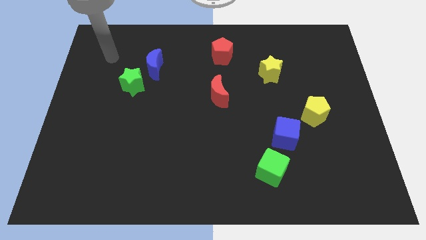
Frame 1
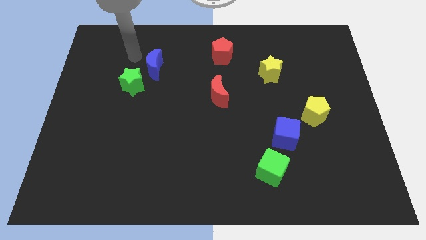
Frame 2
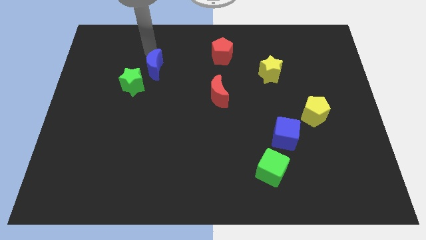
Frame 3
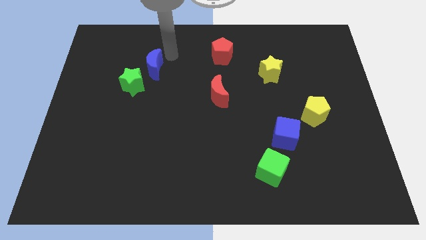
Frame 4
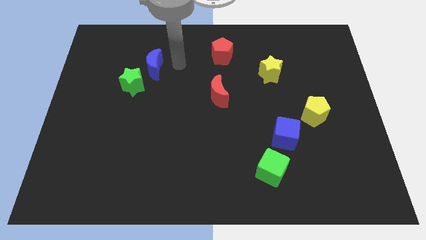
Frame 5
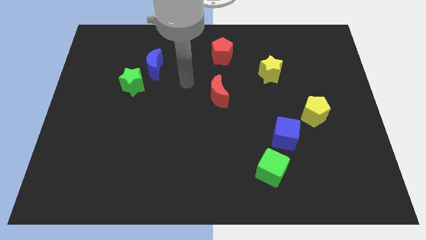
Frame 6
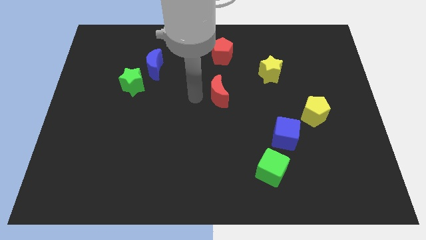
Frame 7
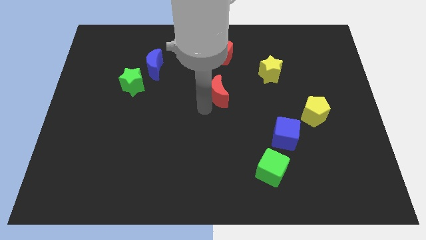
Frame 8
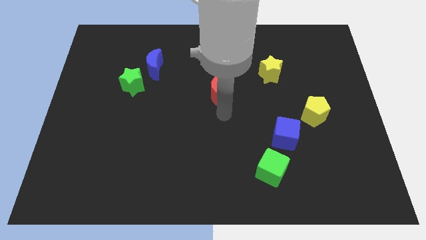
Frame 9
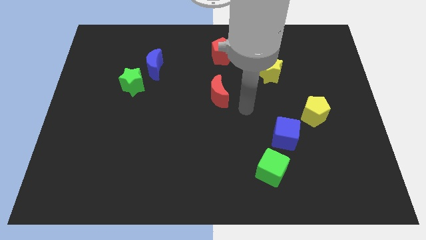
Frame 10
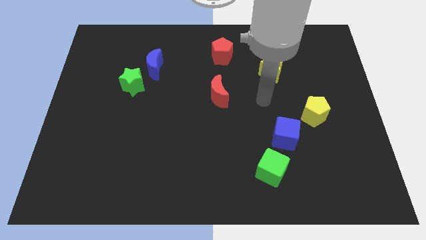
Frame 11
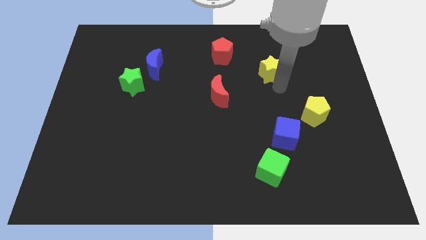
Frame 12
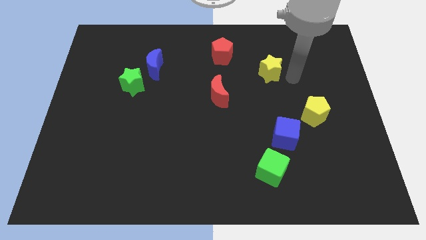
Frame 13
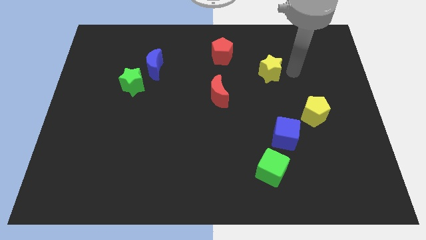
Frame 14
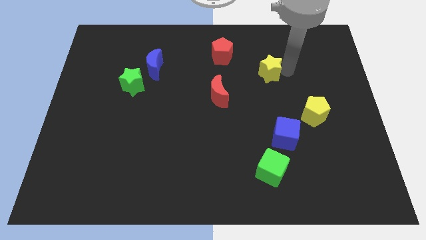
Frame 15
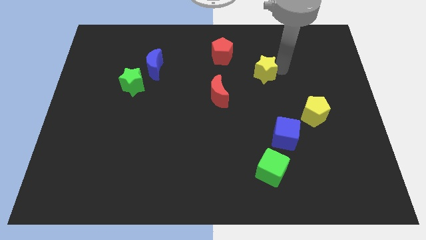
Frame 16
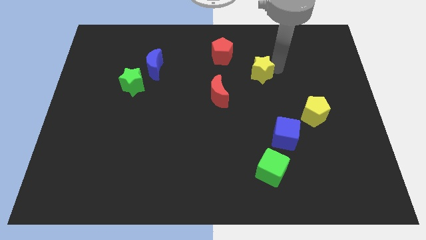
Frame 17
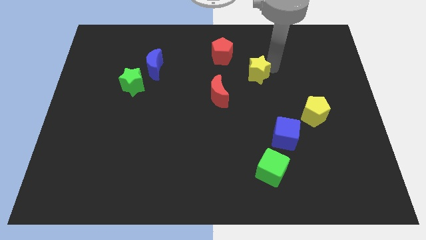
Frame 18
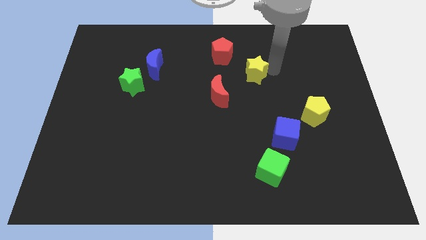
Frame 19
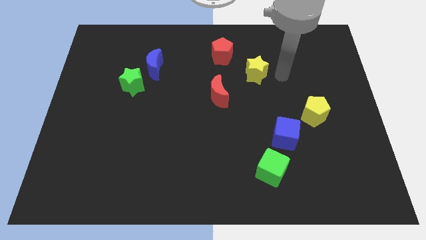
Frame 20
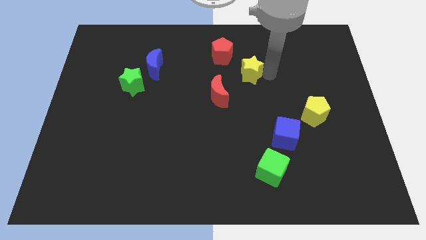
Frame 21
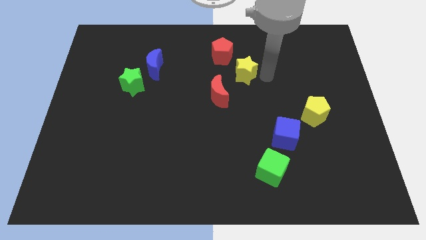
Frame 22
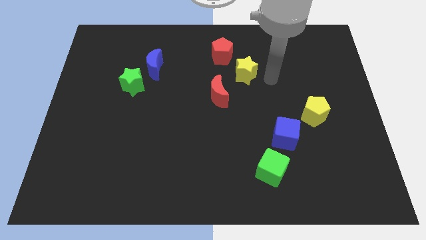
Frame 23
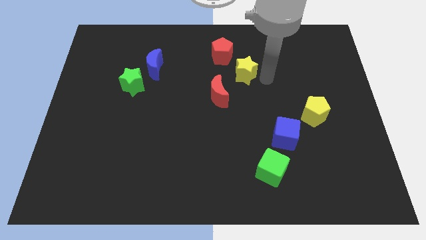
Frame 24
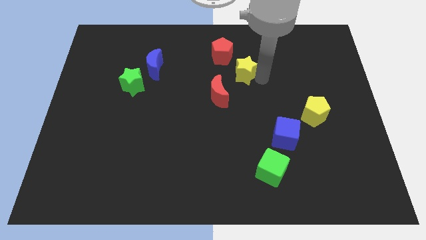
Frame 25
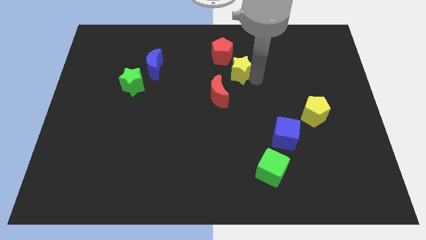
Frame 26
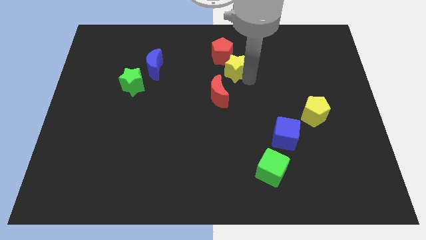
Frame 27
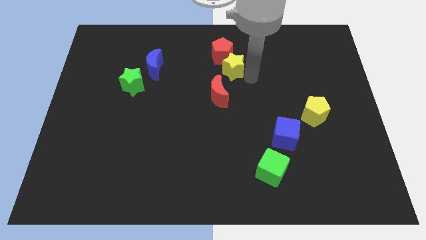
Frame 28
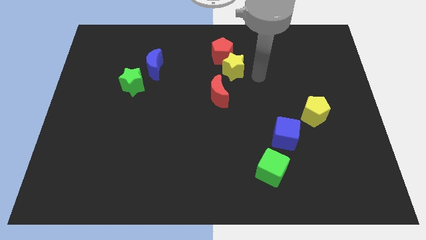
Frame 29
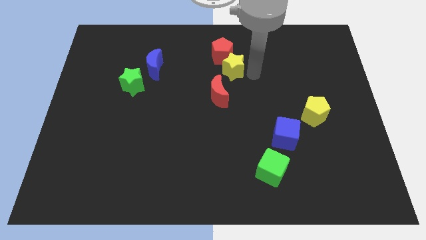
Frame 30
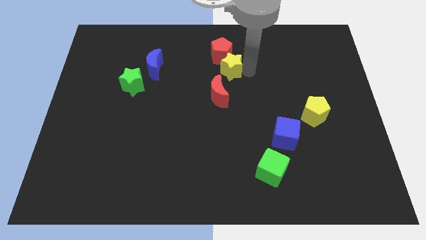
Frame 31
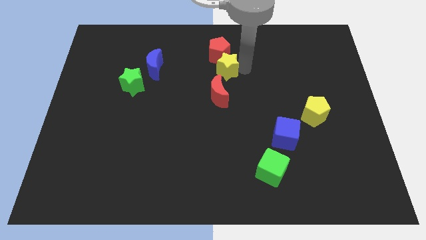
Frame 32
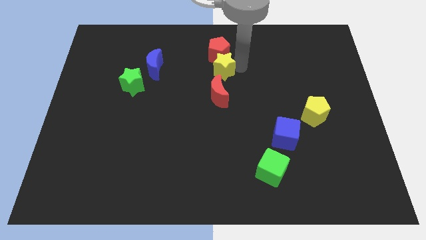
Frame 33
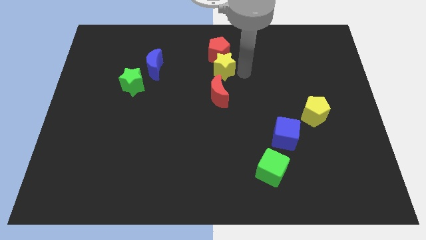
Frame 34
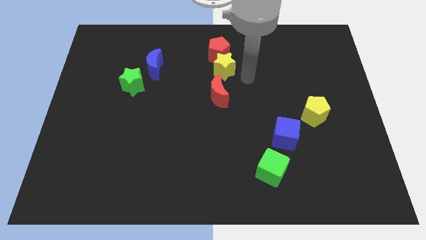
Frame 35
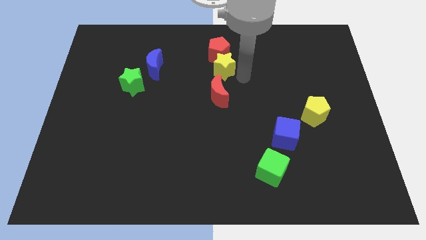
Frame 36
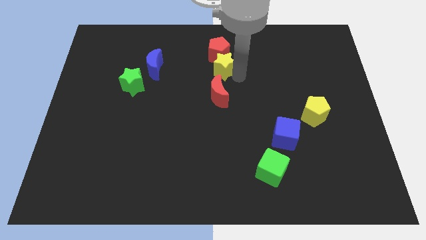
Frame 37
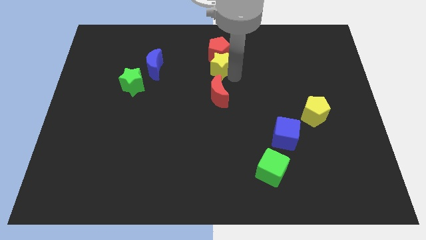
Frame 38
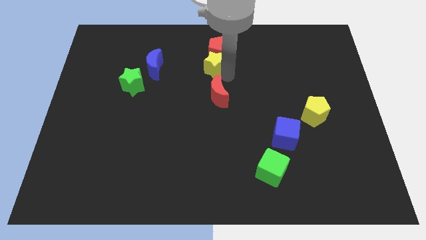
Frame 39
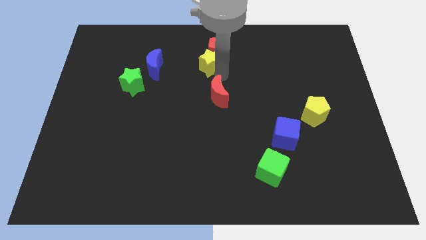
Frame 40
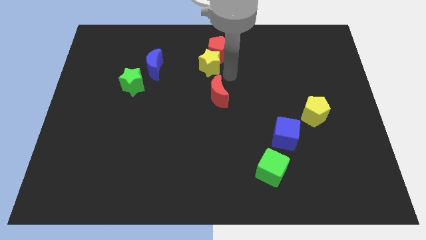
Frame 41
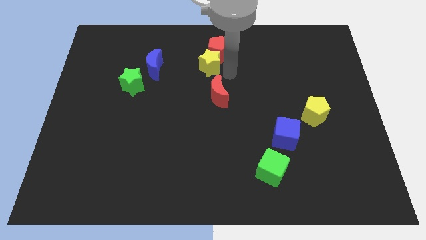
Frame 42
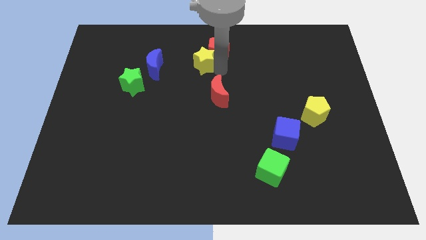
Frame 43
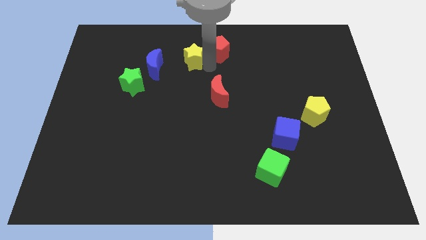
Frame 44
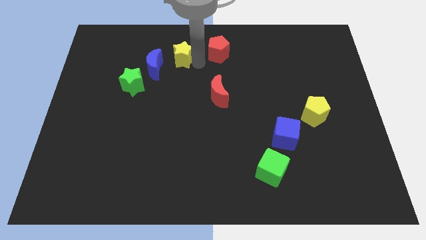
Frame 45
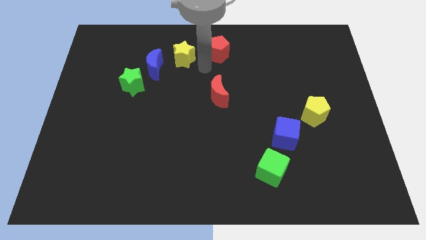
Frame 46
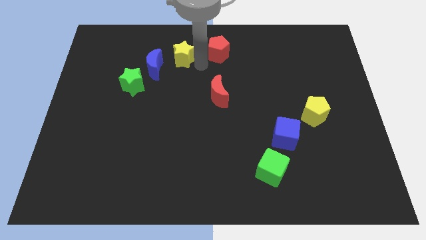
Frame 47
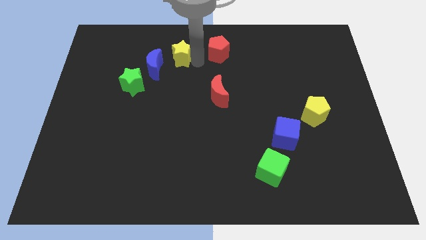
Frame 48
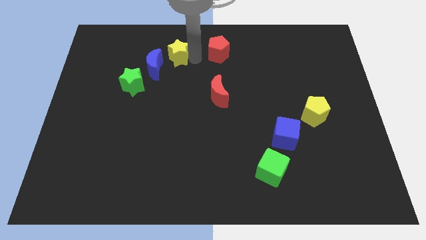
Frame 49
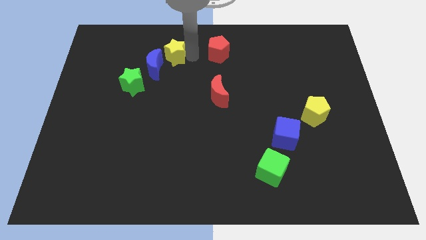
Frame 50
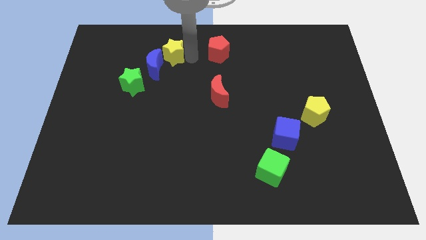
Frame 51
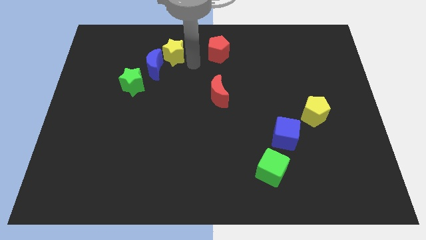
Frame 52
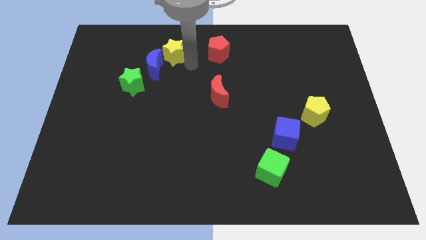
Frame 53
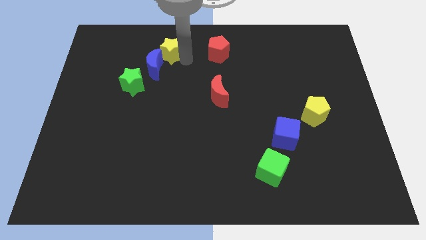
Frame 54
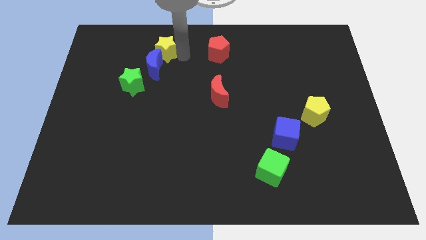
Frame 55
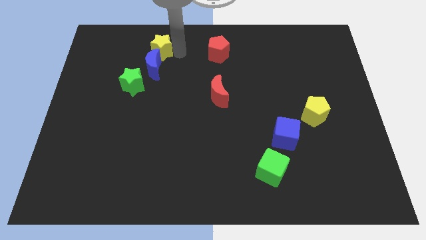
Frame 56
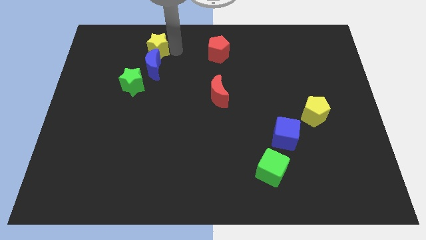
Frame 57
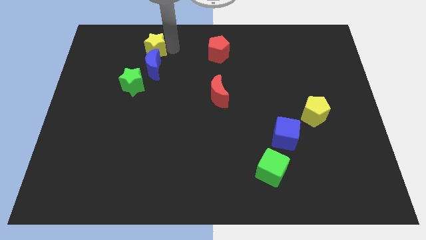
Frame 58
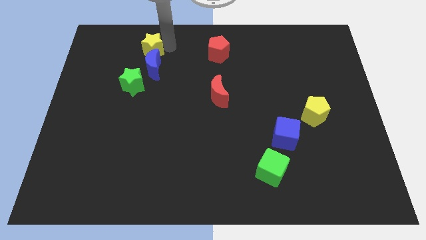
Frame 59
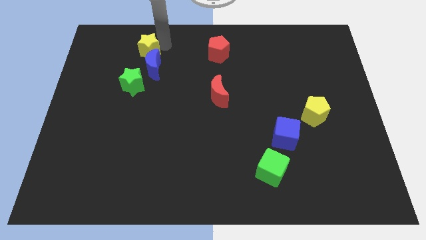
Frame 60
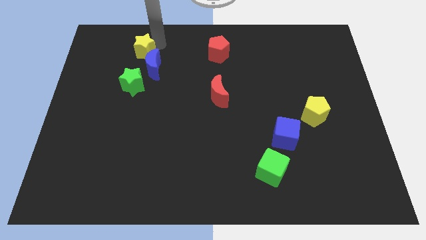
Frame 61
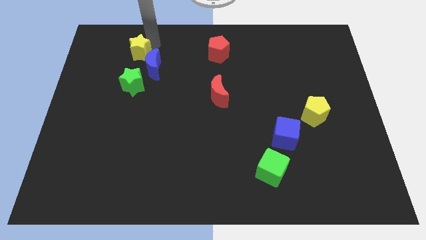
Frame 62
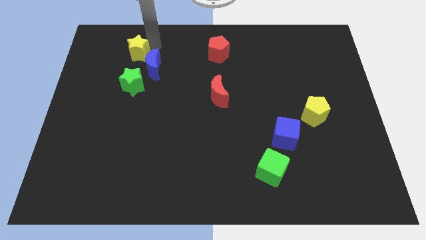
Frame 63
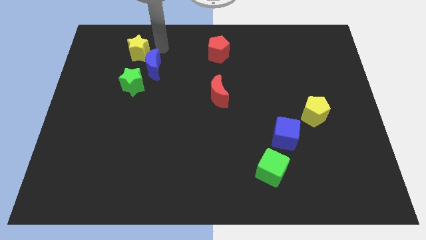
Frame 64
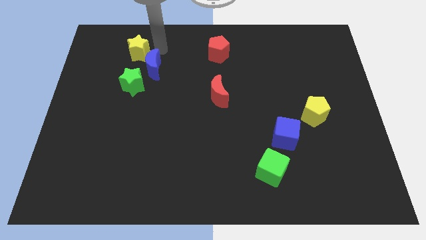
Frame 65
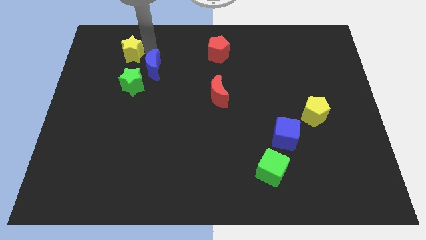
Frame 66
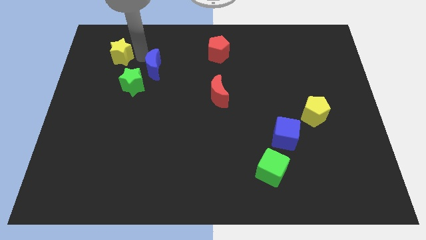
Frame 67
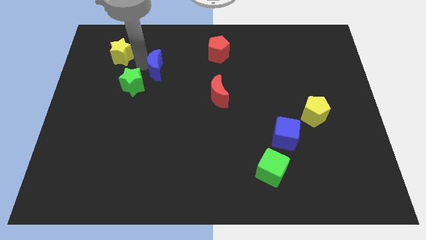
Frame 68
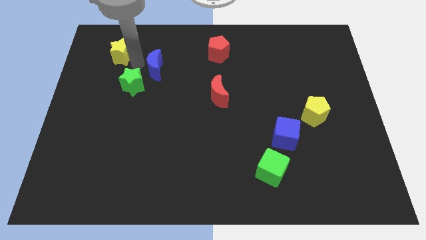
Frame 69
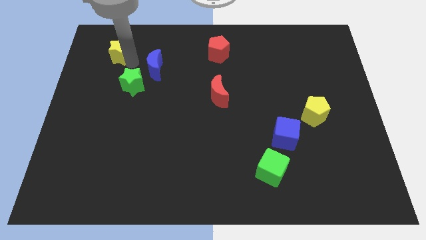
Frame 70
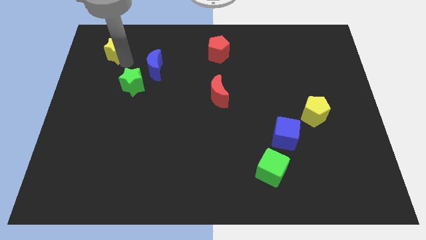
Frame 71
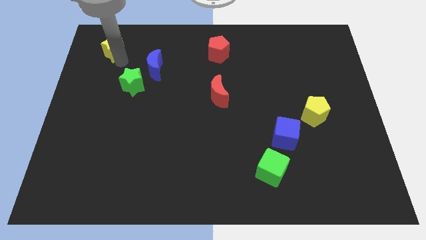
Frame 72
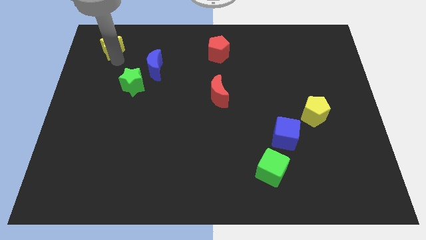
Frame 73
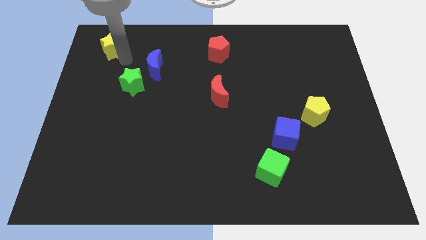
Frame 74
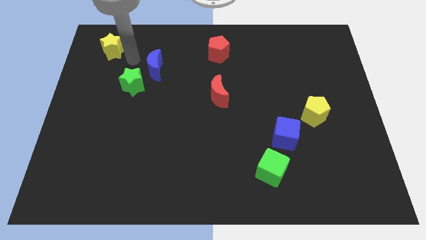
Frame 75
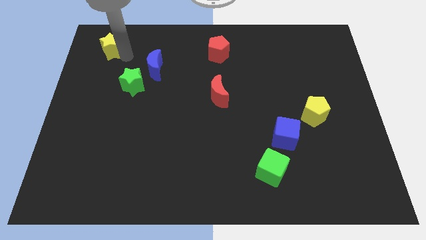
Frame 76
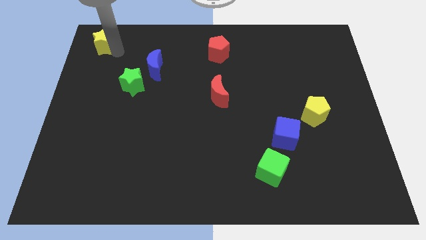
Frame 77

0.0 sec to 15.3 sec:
move the yellow star to the top left corner

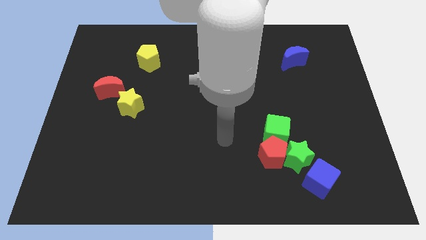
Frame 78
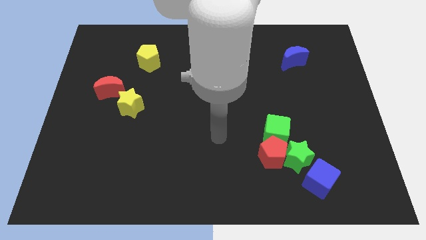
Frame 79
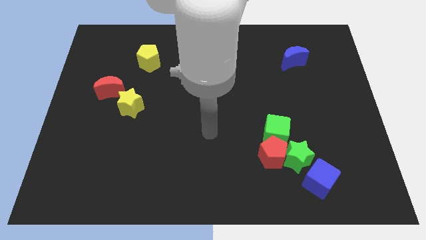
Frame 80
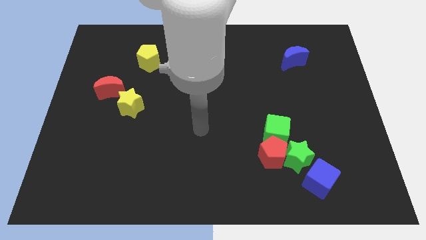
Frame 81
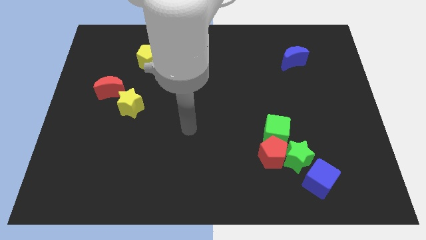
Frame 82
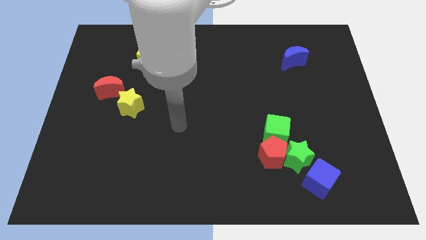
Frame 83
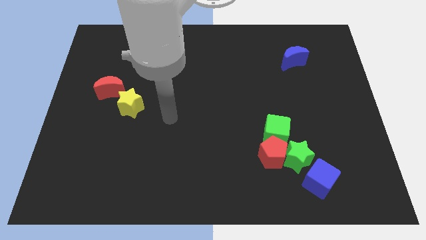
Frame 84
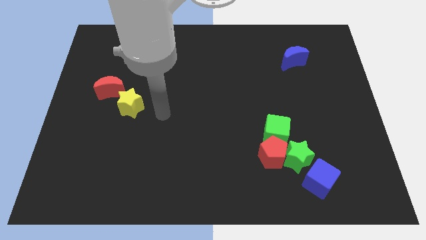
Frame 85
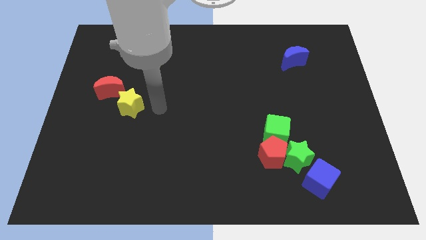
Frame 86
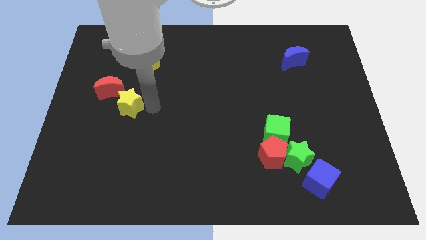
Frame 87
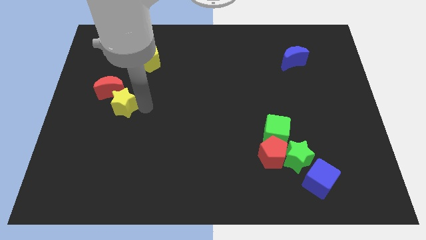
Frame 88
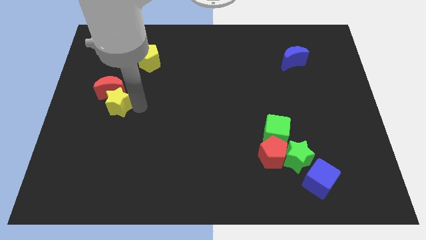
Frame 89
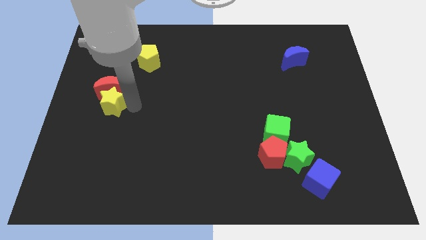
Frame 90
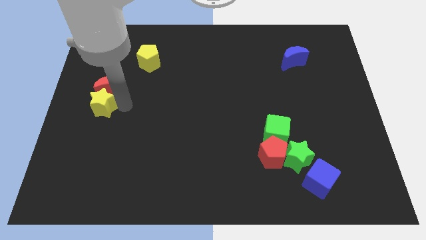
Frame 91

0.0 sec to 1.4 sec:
slide the yellow star to the center left
